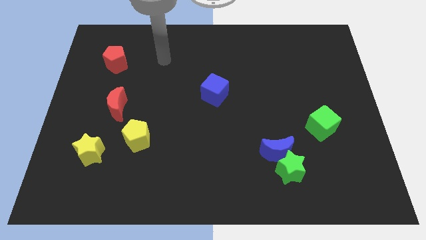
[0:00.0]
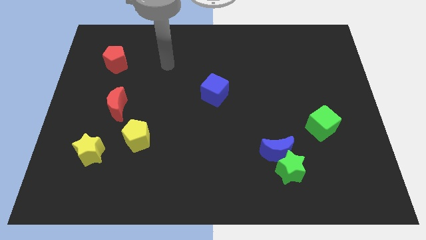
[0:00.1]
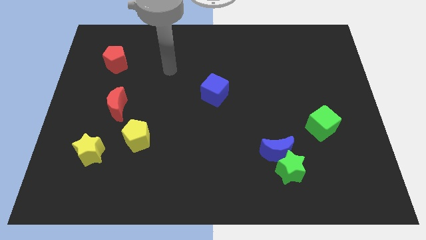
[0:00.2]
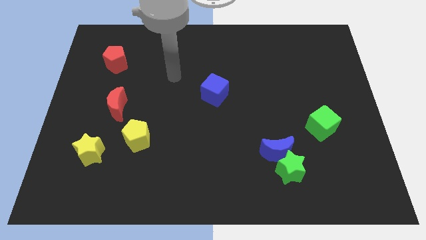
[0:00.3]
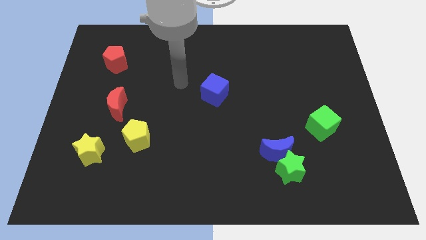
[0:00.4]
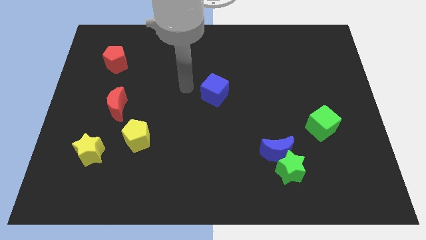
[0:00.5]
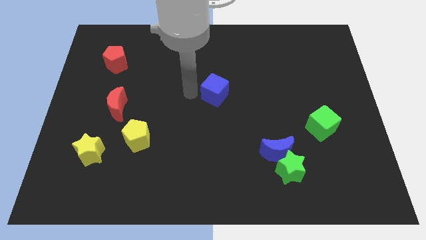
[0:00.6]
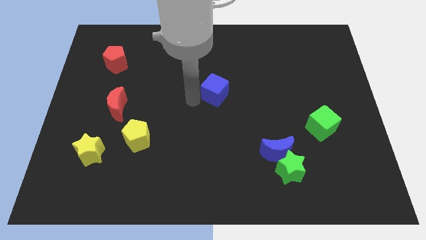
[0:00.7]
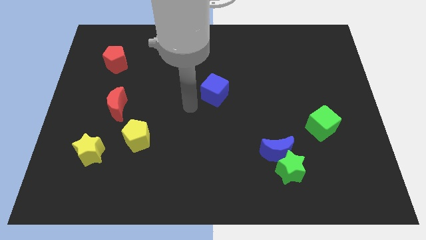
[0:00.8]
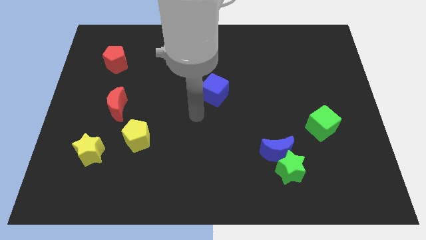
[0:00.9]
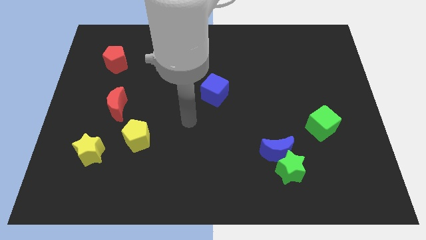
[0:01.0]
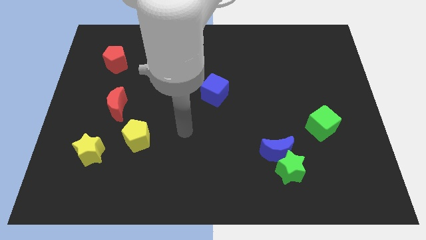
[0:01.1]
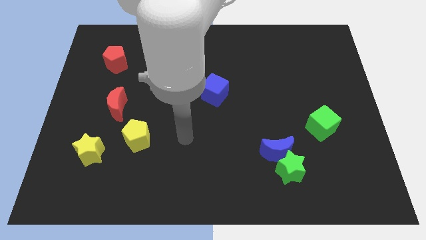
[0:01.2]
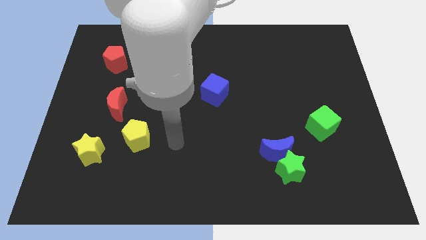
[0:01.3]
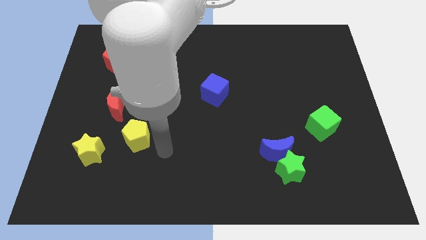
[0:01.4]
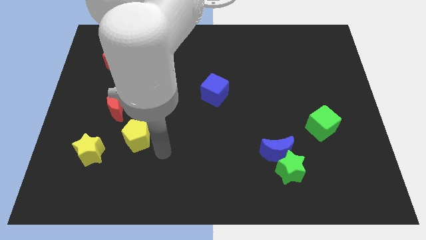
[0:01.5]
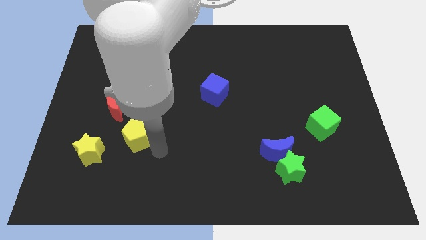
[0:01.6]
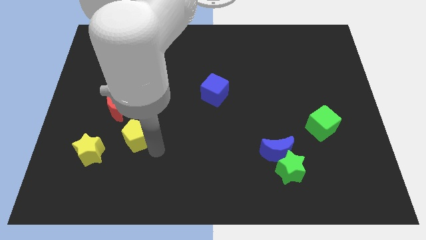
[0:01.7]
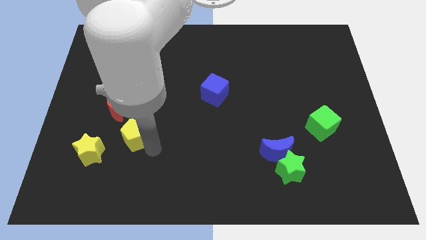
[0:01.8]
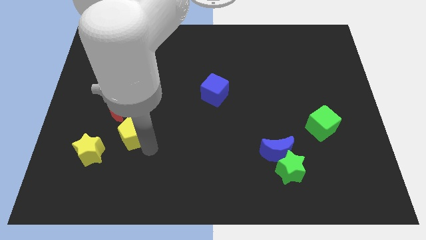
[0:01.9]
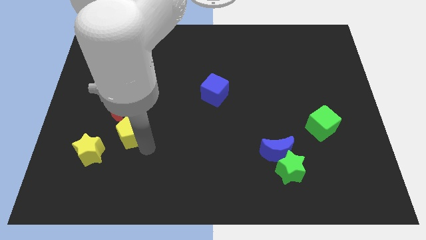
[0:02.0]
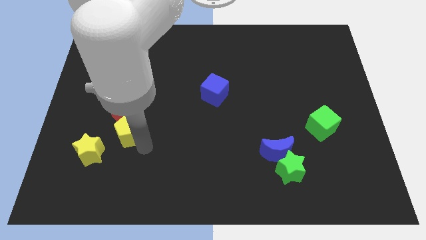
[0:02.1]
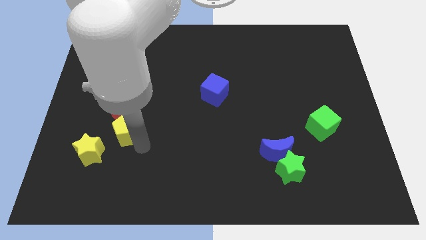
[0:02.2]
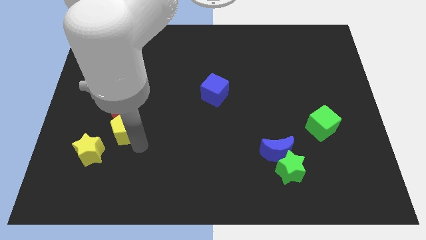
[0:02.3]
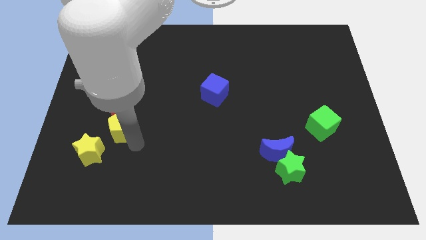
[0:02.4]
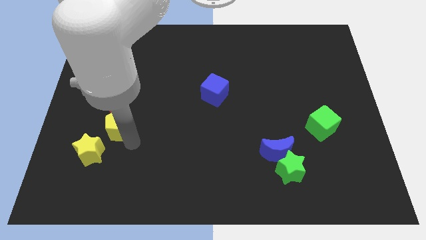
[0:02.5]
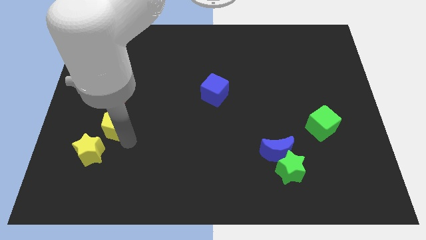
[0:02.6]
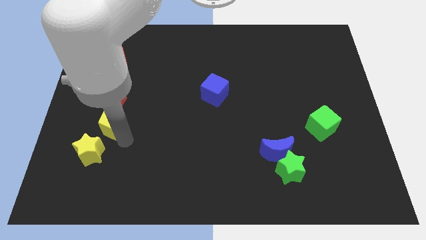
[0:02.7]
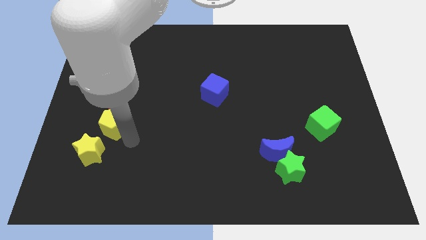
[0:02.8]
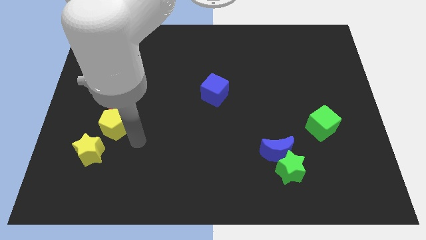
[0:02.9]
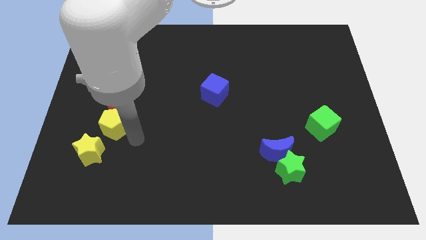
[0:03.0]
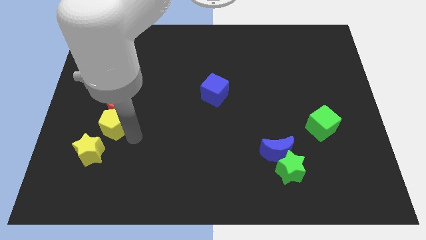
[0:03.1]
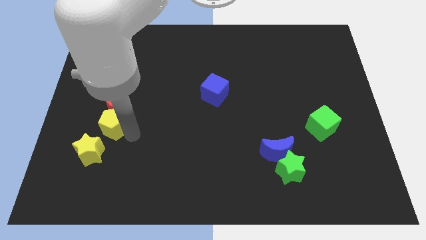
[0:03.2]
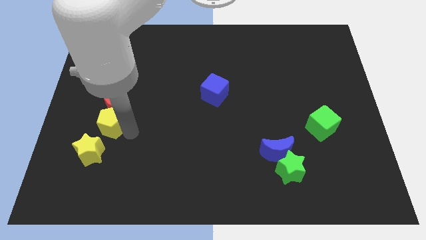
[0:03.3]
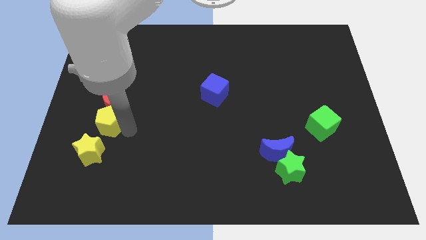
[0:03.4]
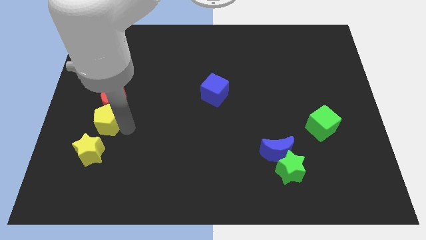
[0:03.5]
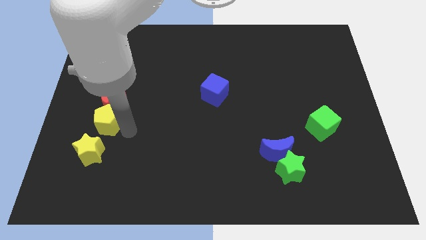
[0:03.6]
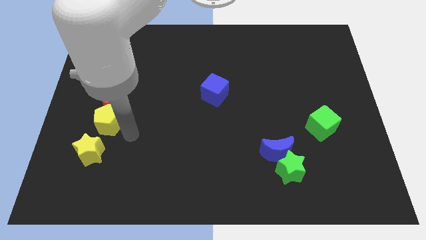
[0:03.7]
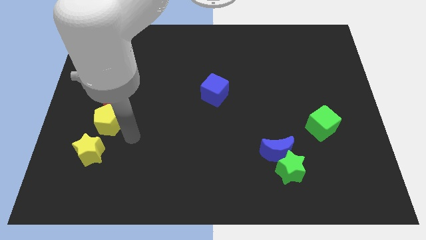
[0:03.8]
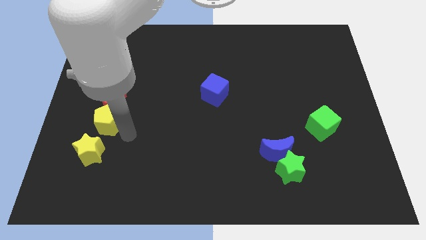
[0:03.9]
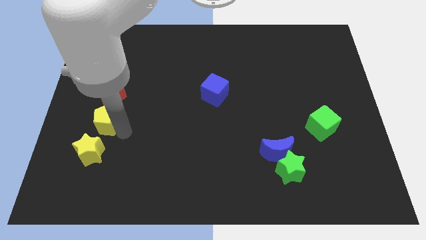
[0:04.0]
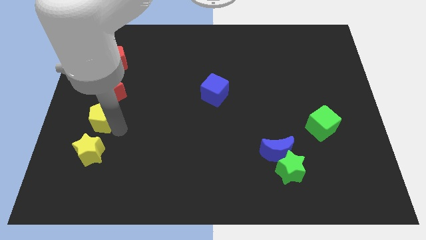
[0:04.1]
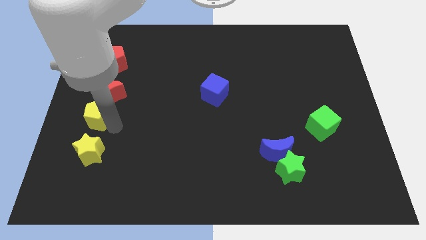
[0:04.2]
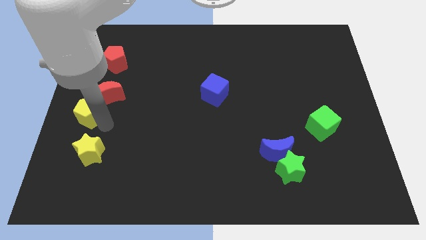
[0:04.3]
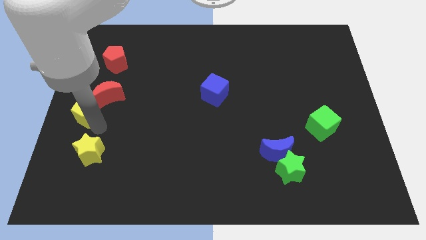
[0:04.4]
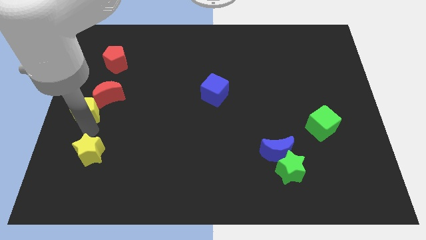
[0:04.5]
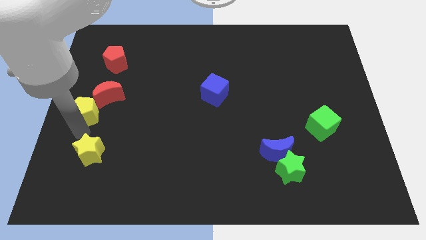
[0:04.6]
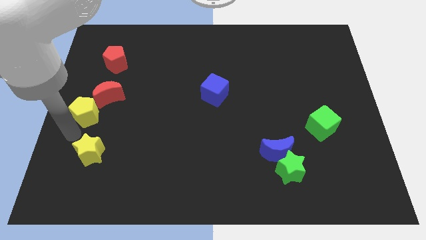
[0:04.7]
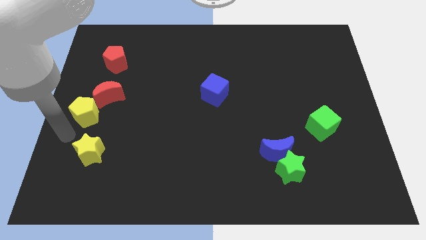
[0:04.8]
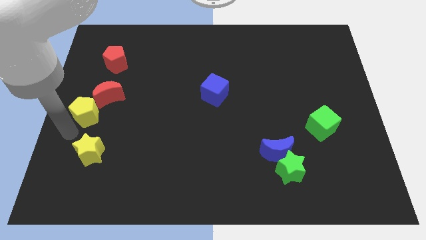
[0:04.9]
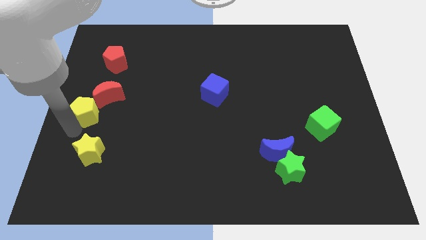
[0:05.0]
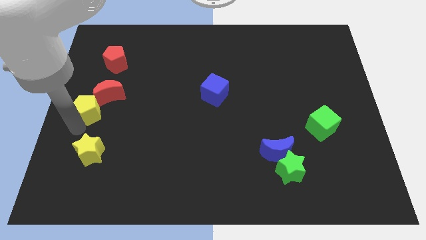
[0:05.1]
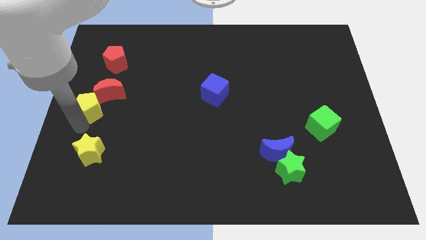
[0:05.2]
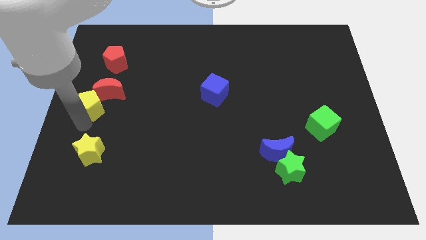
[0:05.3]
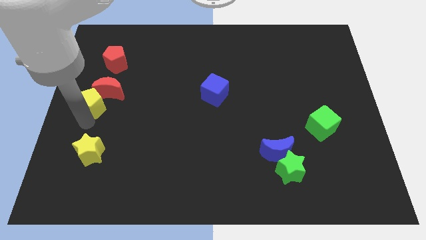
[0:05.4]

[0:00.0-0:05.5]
move the yellow pentagon to the bottom side of the red pentagon

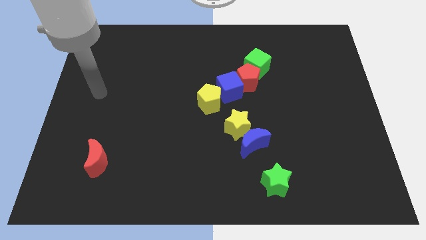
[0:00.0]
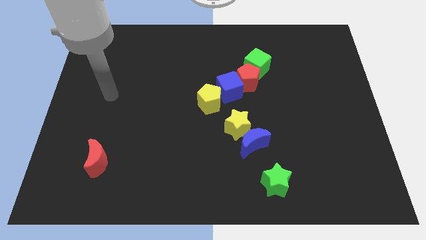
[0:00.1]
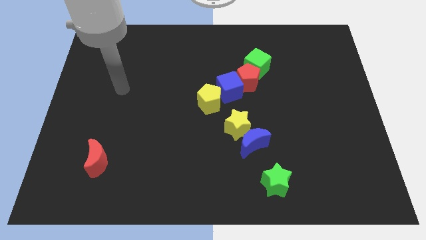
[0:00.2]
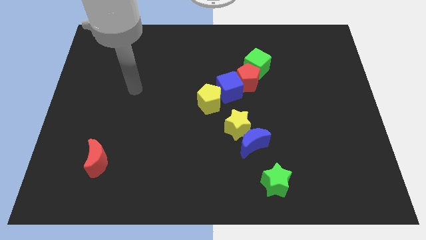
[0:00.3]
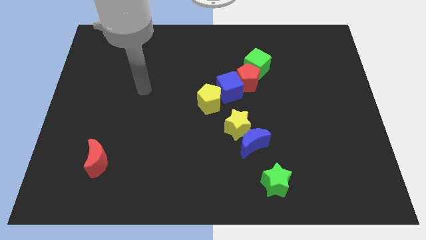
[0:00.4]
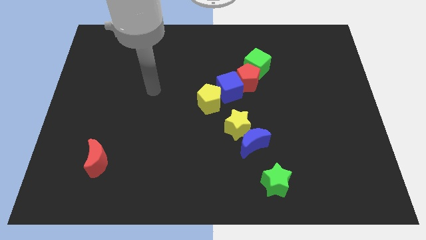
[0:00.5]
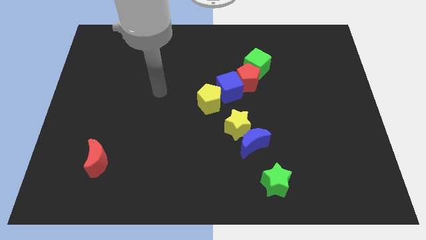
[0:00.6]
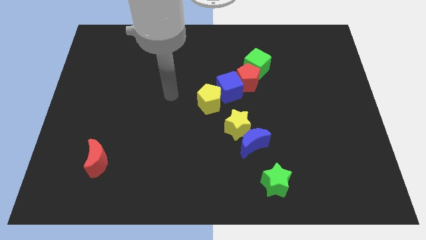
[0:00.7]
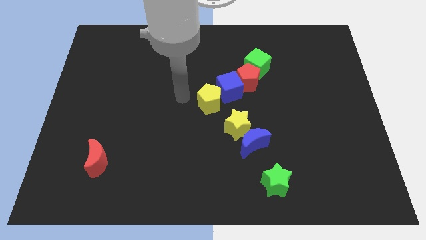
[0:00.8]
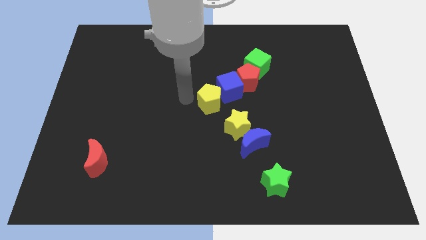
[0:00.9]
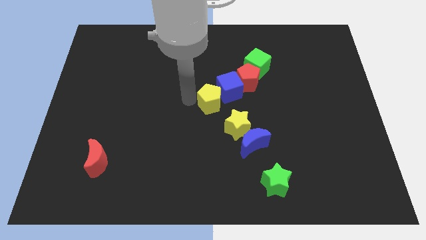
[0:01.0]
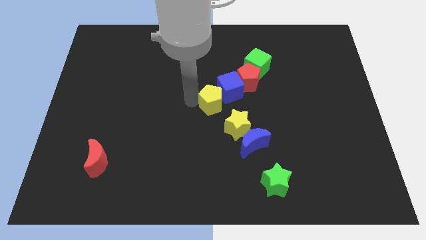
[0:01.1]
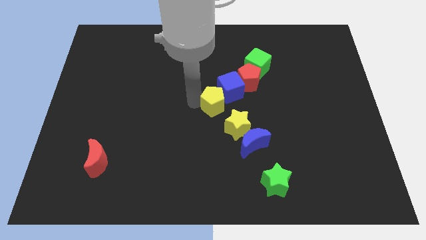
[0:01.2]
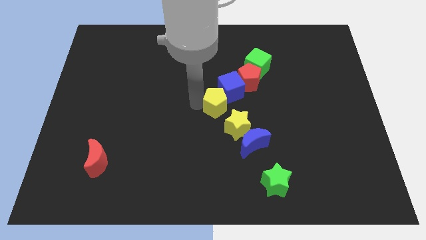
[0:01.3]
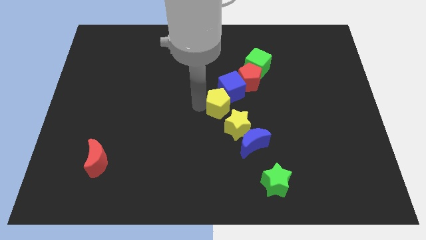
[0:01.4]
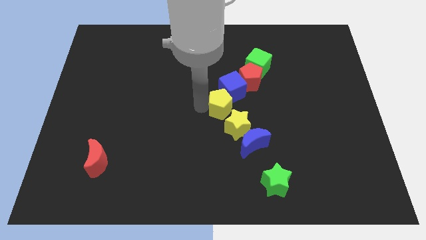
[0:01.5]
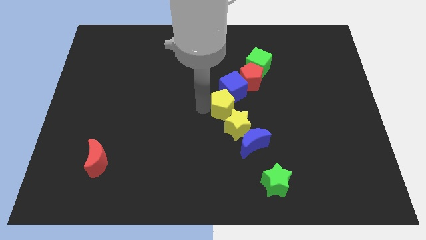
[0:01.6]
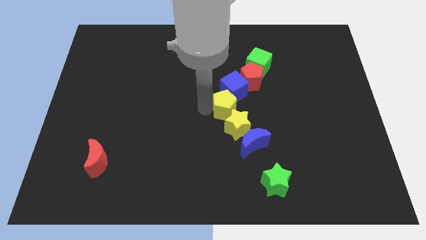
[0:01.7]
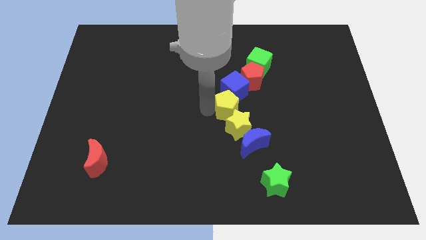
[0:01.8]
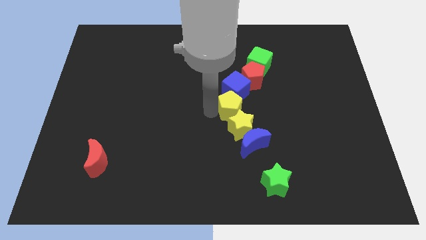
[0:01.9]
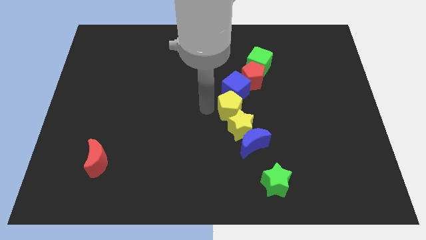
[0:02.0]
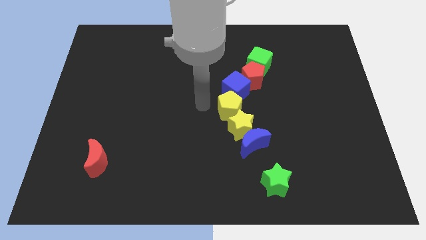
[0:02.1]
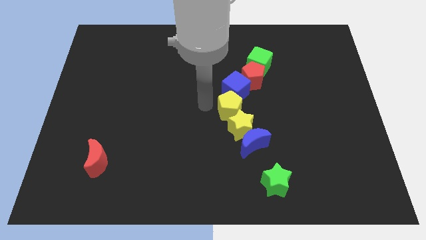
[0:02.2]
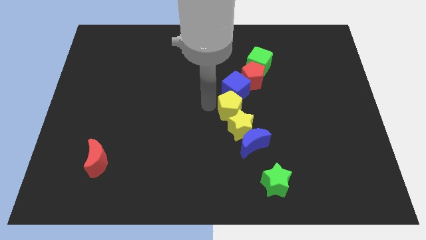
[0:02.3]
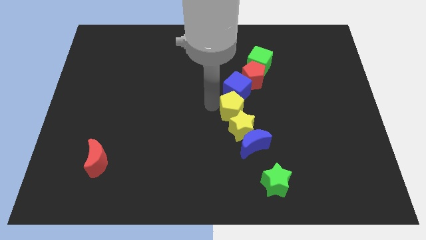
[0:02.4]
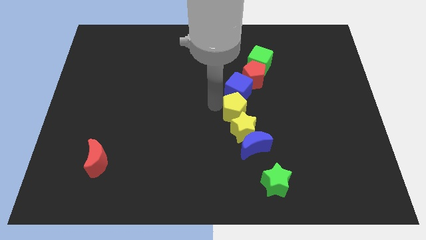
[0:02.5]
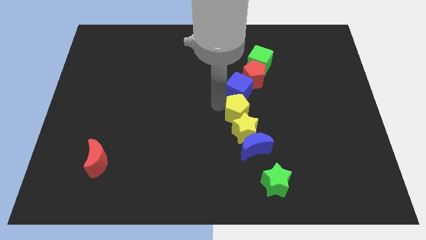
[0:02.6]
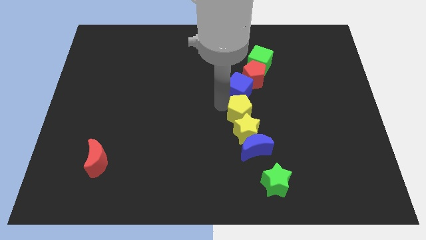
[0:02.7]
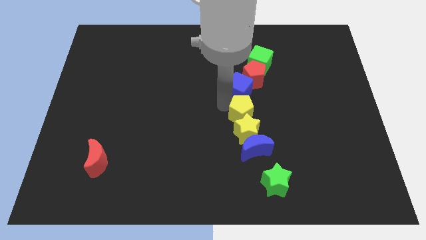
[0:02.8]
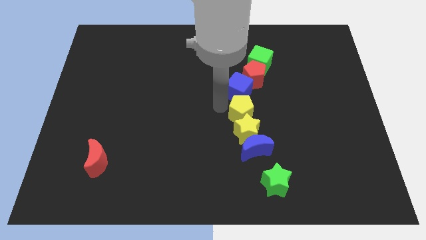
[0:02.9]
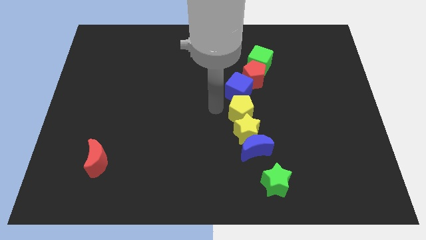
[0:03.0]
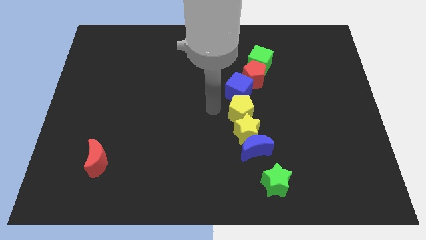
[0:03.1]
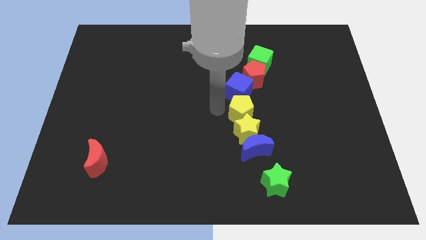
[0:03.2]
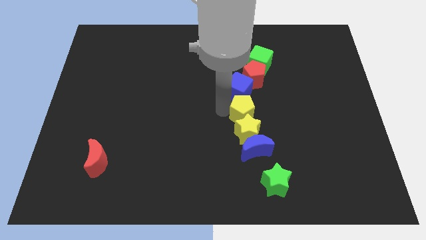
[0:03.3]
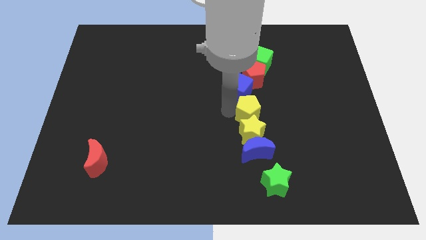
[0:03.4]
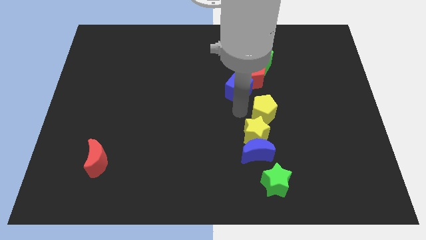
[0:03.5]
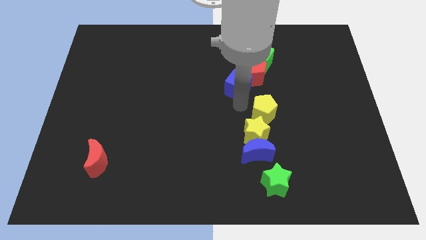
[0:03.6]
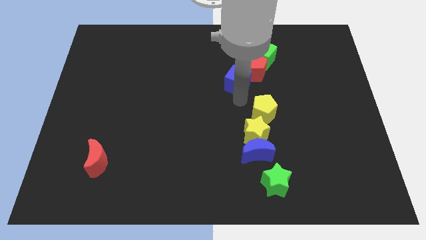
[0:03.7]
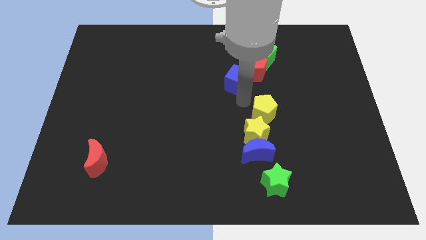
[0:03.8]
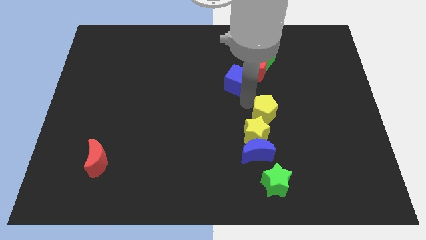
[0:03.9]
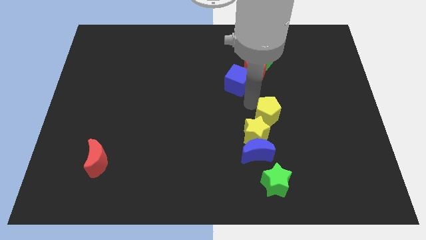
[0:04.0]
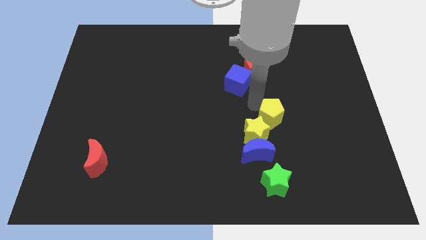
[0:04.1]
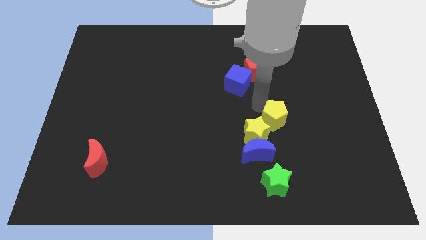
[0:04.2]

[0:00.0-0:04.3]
push the yellow pentagon right of the yellow star
